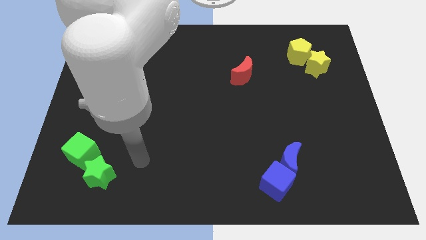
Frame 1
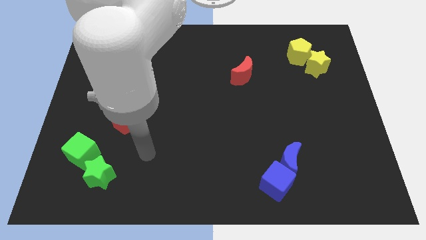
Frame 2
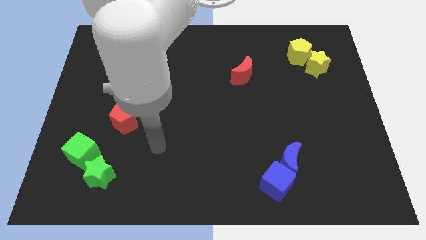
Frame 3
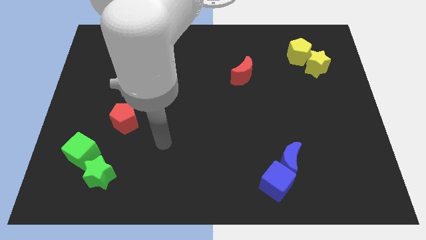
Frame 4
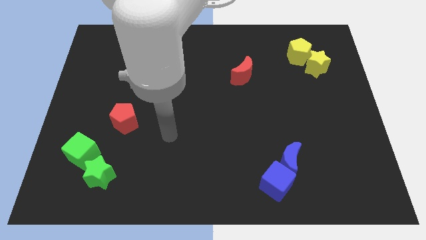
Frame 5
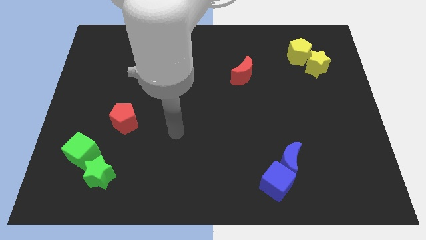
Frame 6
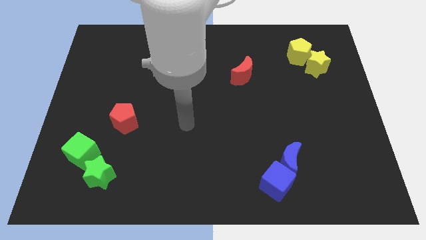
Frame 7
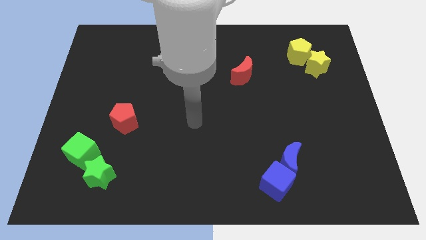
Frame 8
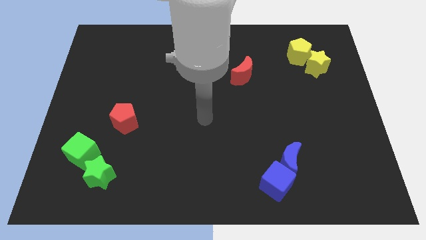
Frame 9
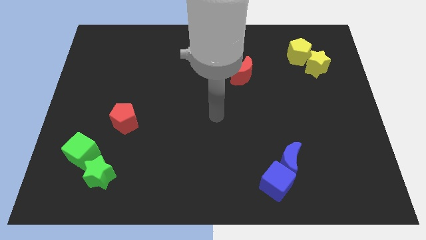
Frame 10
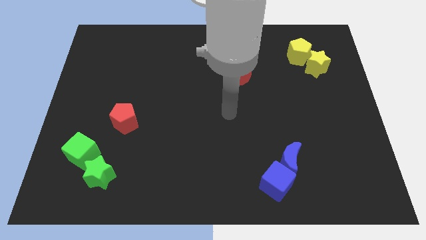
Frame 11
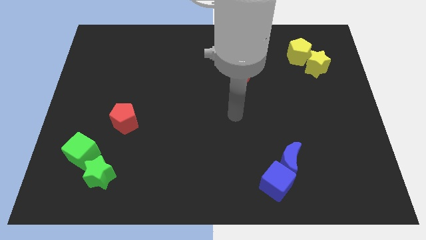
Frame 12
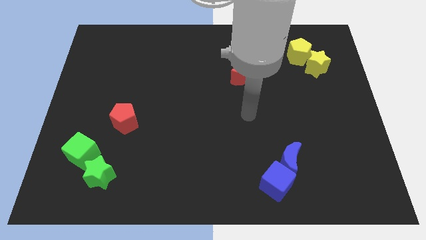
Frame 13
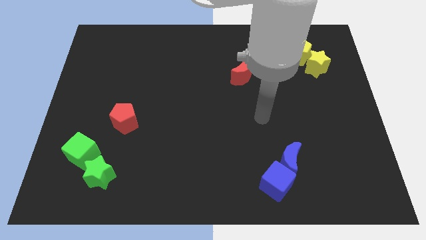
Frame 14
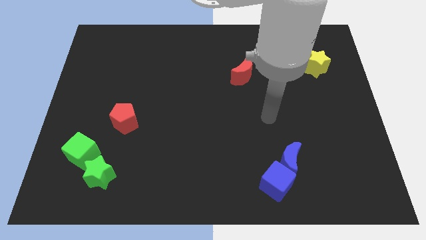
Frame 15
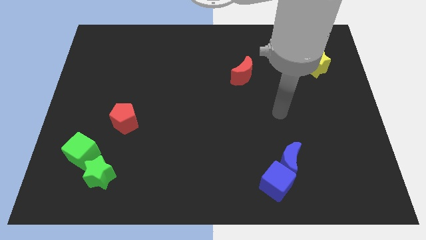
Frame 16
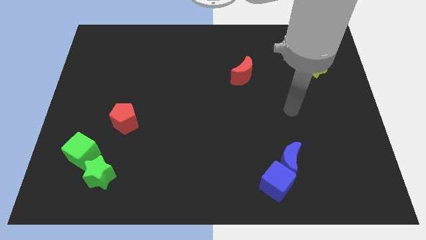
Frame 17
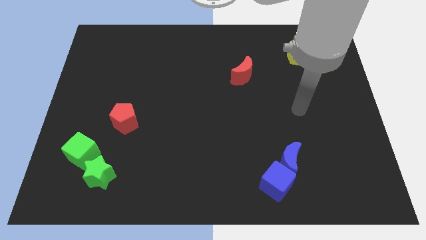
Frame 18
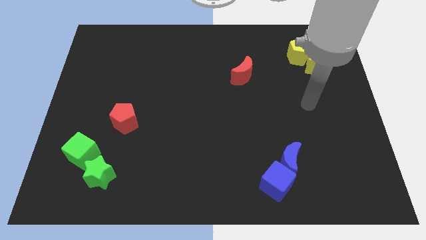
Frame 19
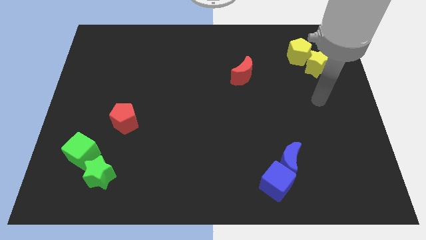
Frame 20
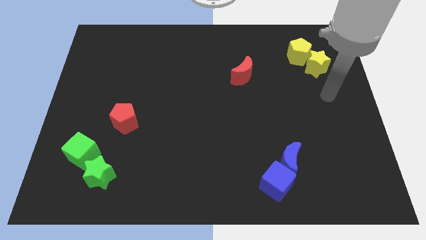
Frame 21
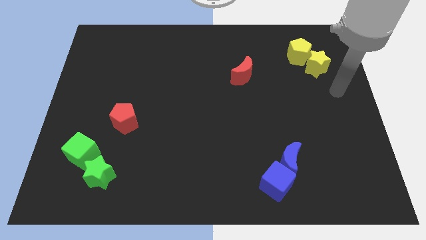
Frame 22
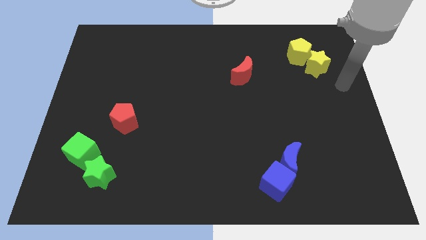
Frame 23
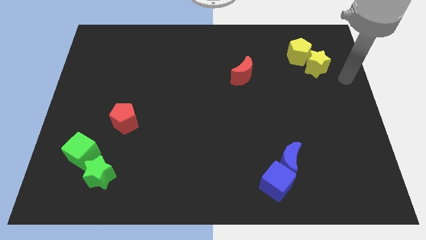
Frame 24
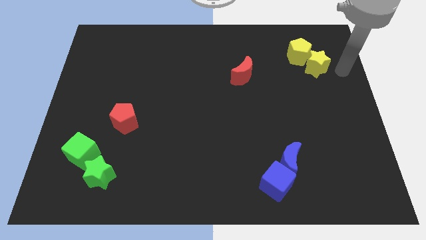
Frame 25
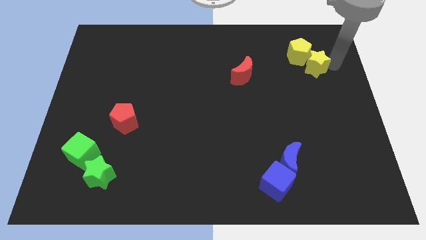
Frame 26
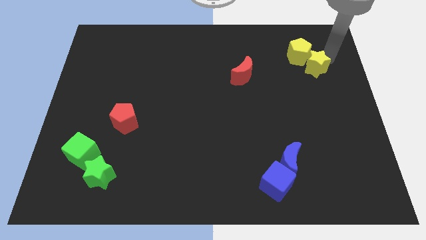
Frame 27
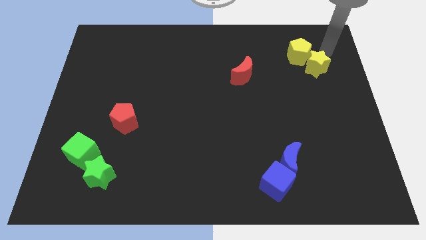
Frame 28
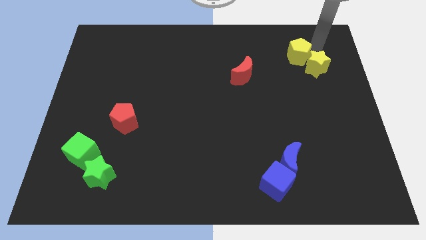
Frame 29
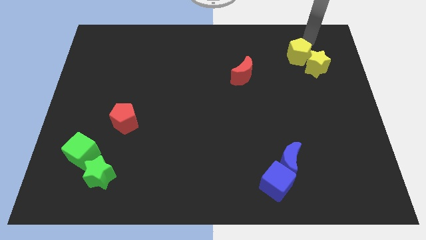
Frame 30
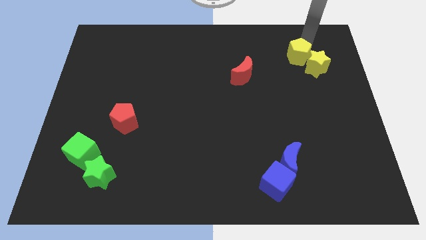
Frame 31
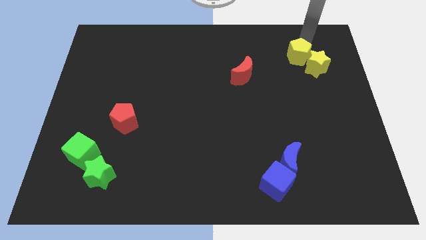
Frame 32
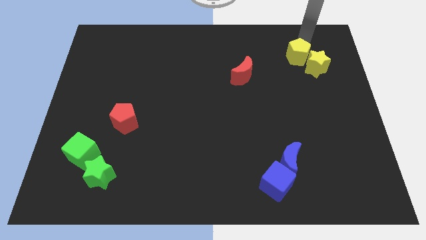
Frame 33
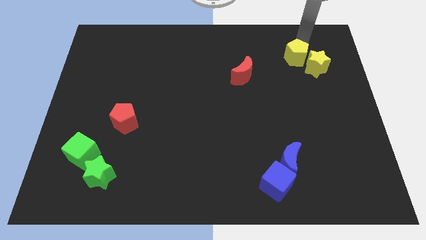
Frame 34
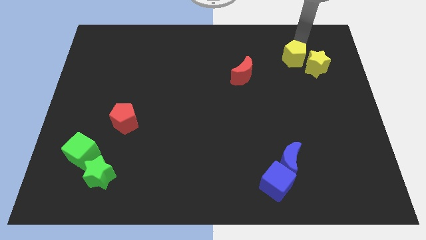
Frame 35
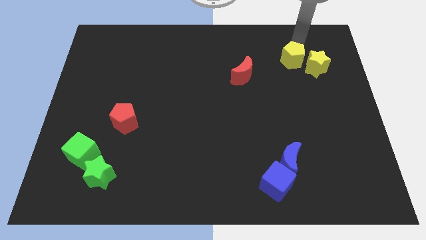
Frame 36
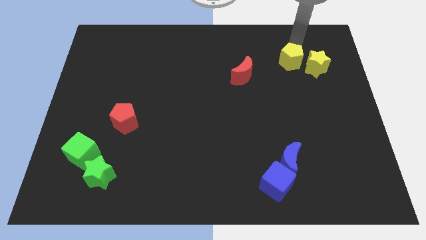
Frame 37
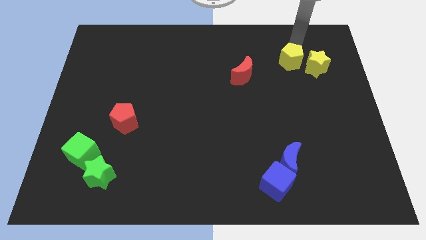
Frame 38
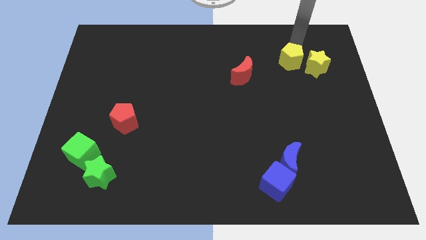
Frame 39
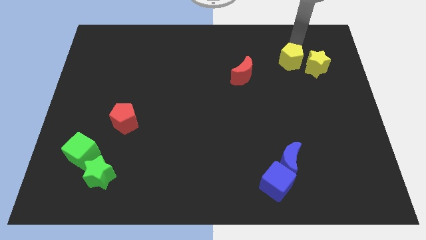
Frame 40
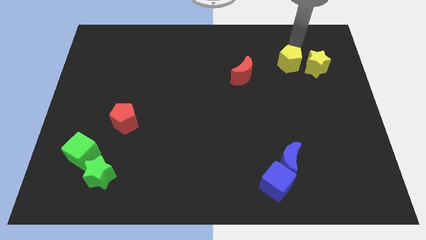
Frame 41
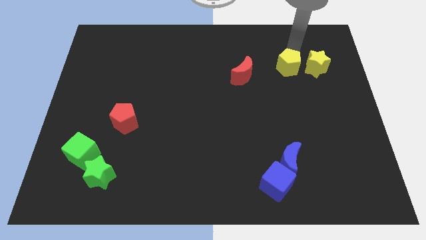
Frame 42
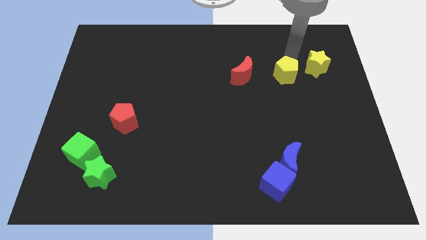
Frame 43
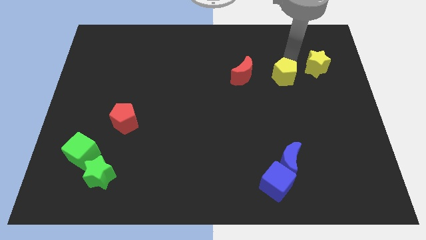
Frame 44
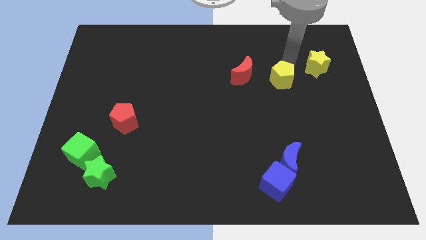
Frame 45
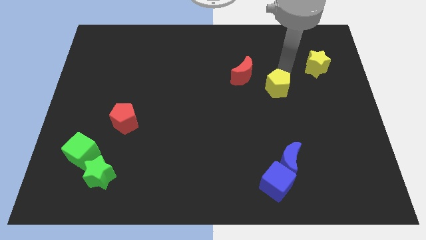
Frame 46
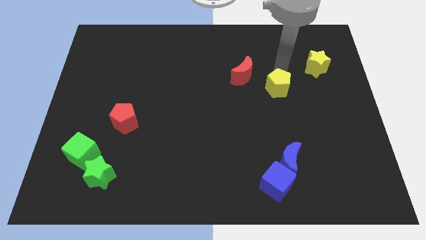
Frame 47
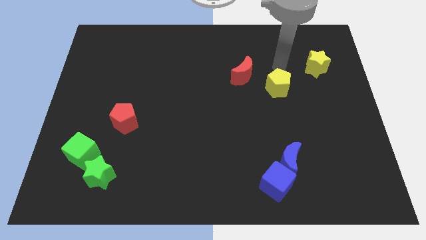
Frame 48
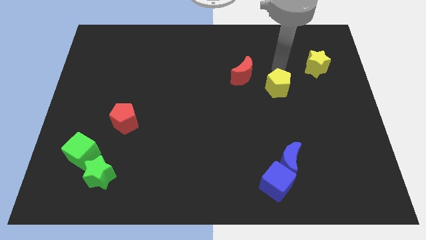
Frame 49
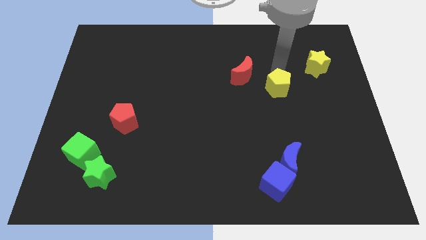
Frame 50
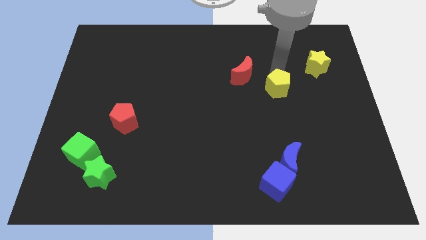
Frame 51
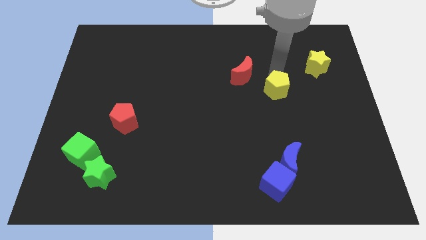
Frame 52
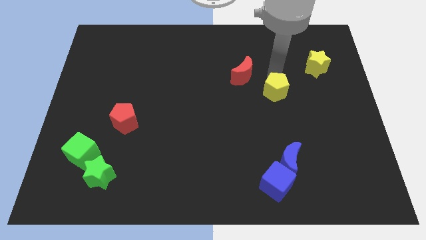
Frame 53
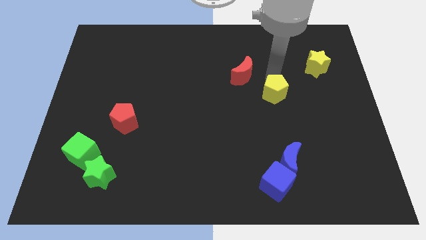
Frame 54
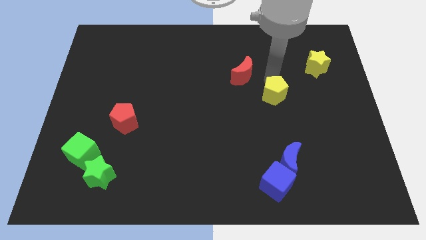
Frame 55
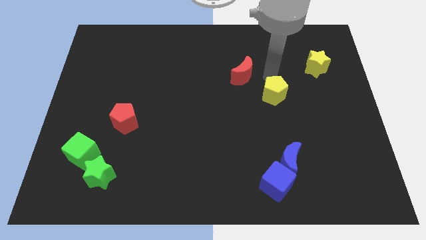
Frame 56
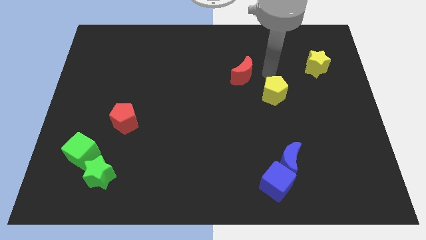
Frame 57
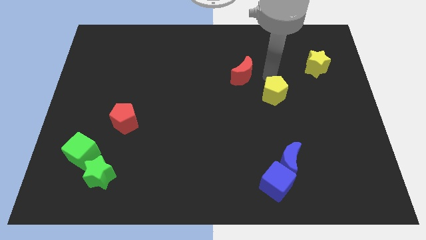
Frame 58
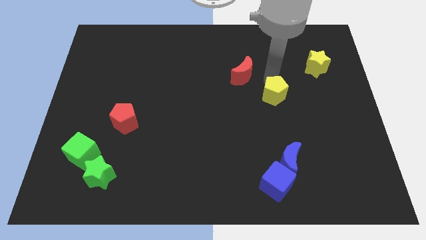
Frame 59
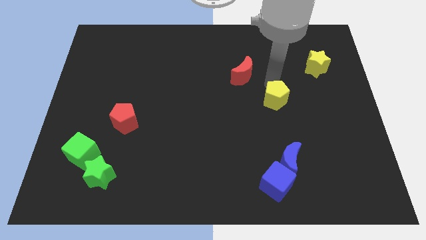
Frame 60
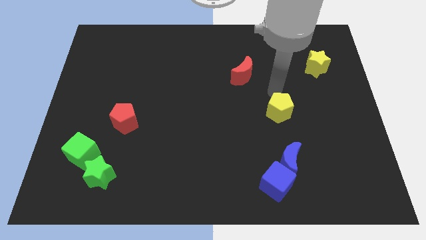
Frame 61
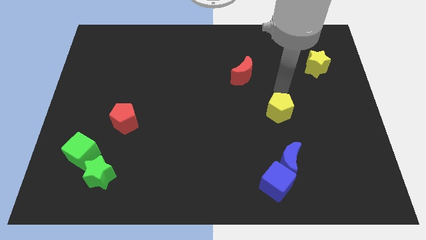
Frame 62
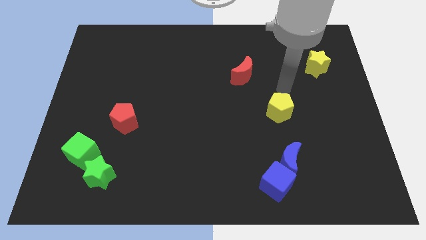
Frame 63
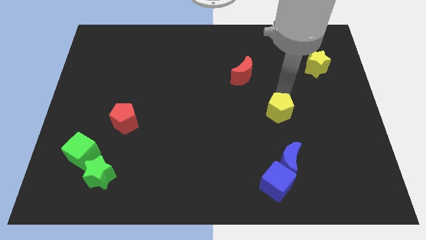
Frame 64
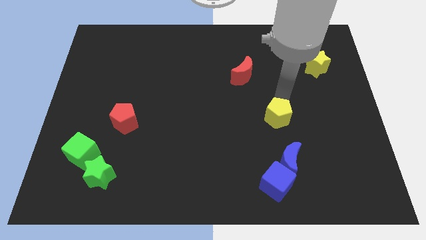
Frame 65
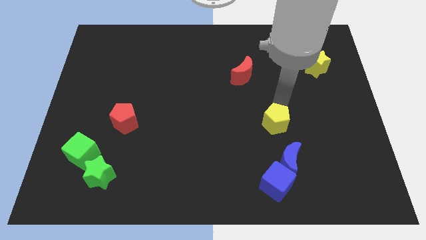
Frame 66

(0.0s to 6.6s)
put the yellow pentagon to the top side of the blue cube

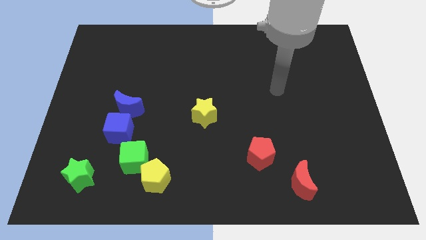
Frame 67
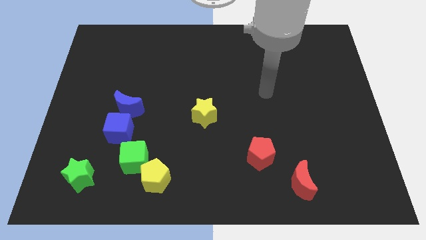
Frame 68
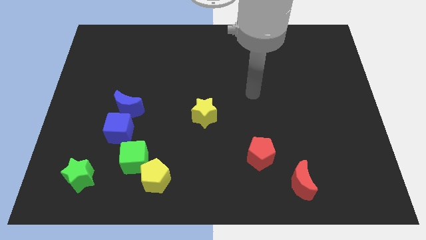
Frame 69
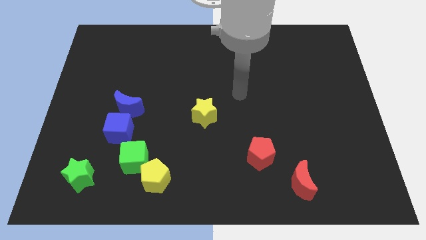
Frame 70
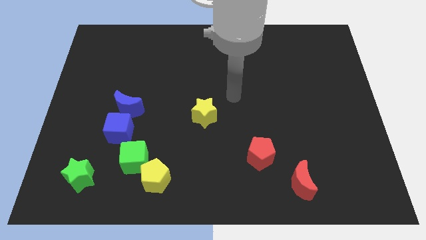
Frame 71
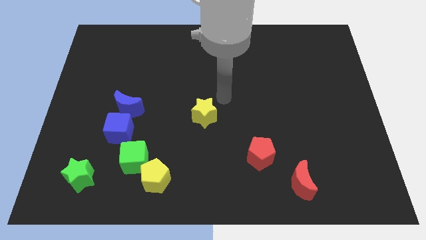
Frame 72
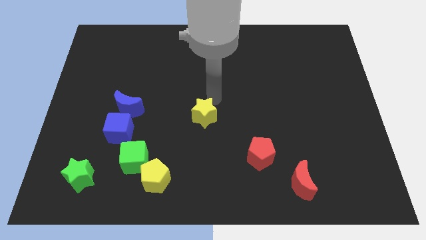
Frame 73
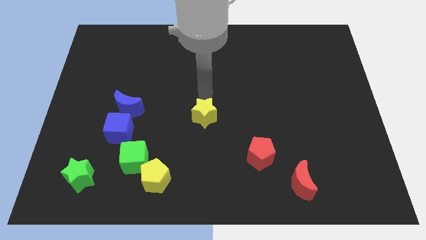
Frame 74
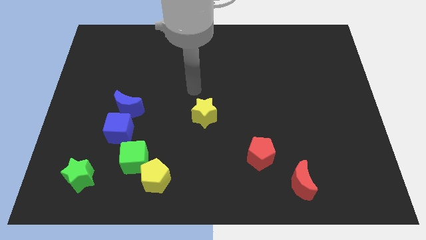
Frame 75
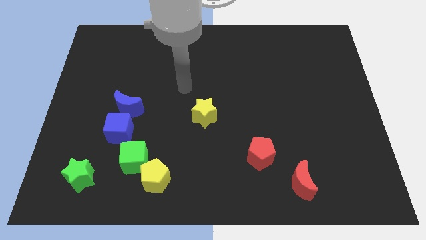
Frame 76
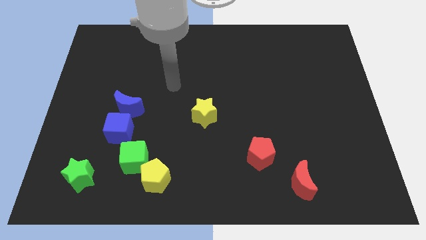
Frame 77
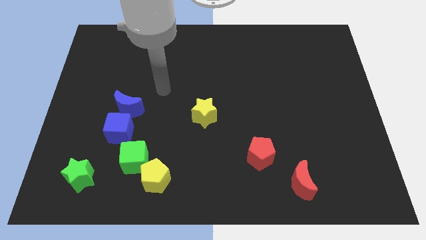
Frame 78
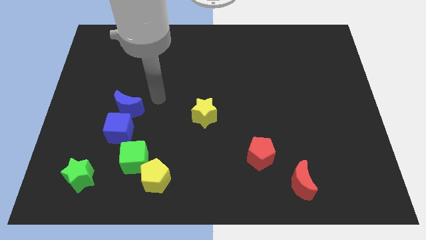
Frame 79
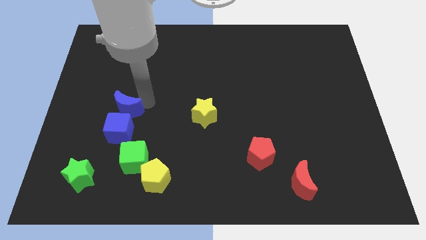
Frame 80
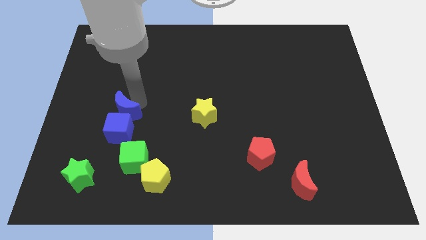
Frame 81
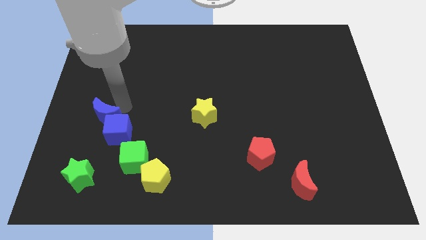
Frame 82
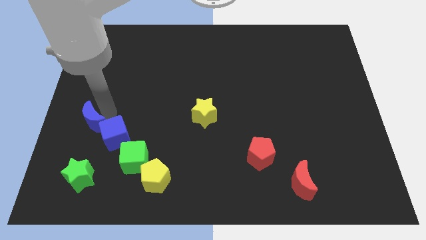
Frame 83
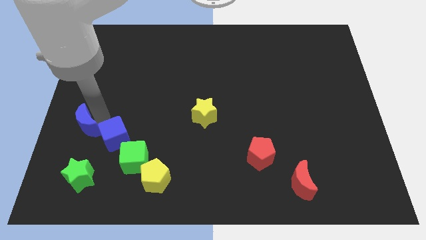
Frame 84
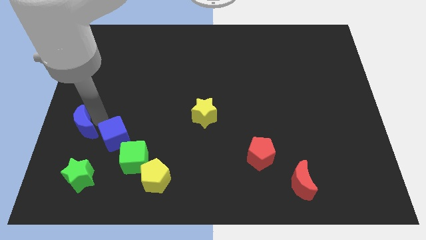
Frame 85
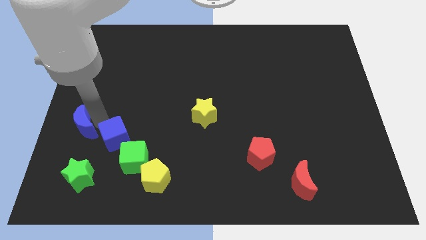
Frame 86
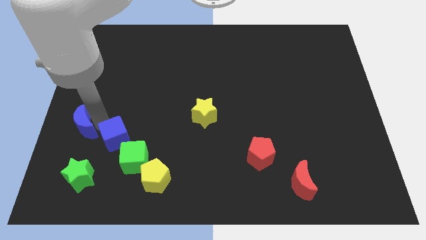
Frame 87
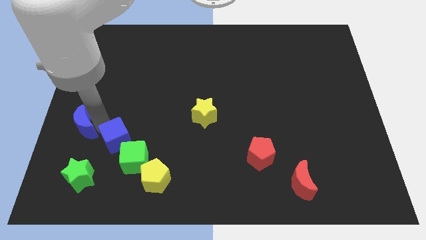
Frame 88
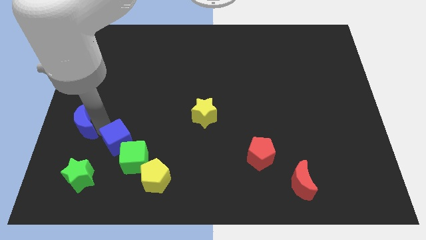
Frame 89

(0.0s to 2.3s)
push the blue cube to the top left side of the yellow pentagon
